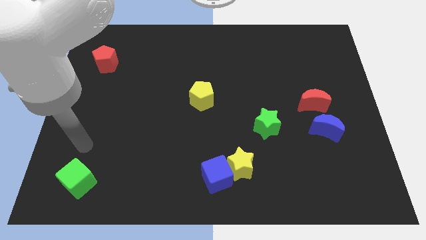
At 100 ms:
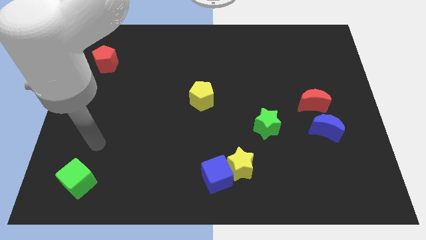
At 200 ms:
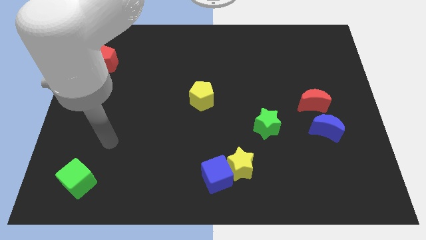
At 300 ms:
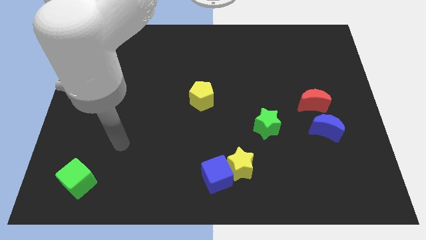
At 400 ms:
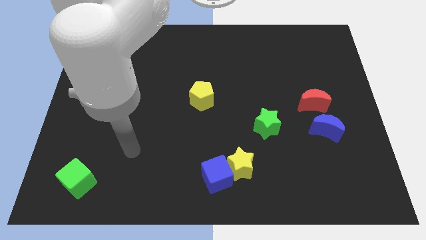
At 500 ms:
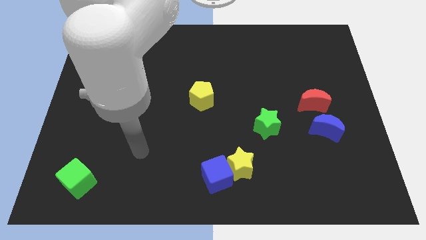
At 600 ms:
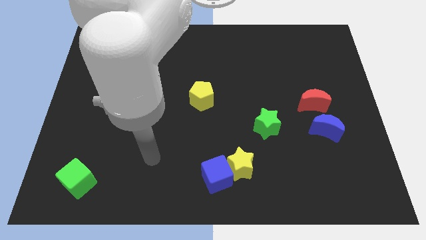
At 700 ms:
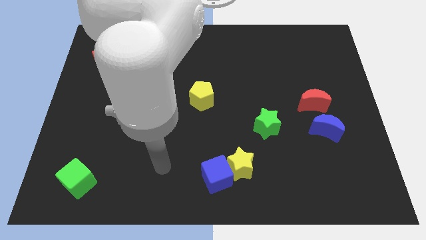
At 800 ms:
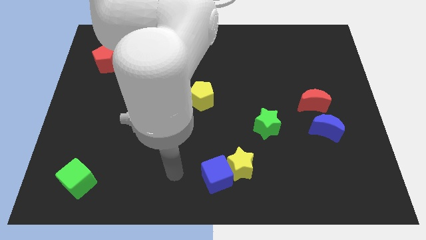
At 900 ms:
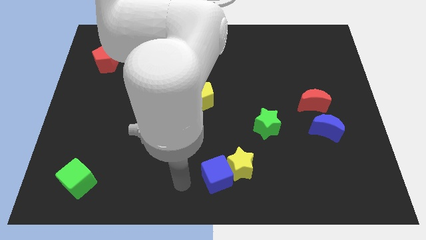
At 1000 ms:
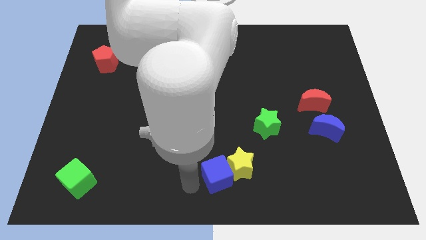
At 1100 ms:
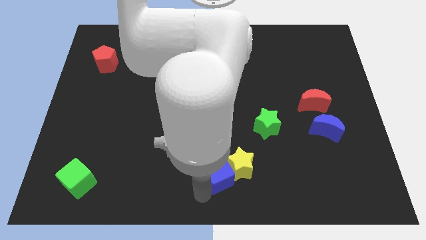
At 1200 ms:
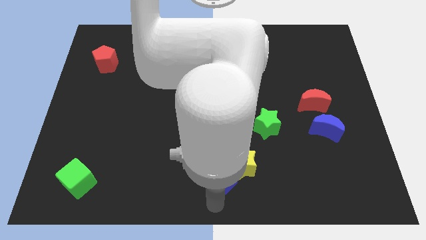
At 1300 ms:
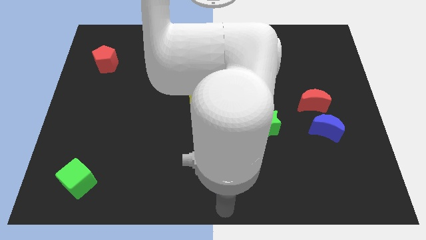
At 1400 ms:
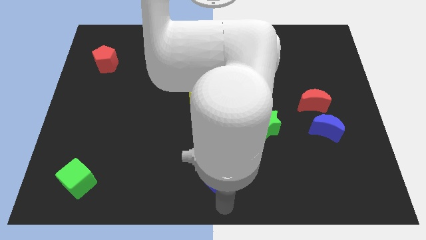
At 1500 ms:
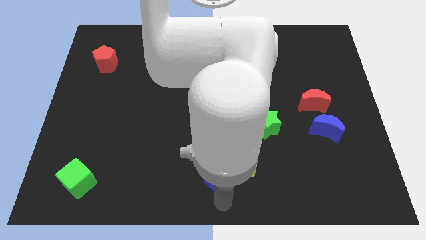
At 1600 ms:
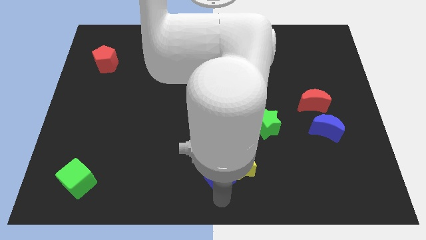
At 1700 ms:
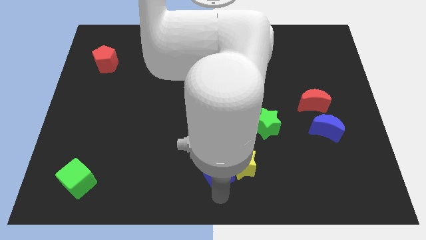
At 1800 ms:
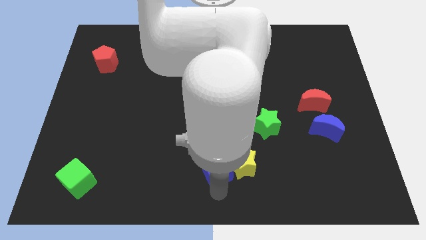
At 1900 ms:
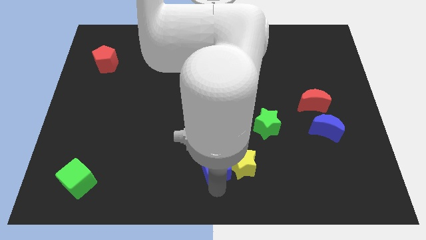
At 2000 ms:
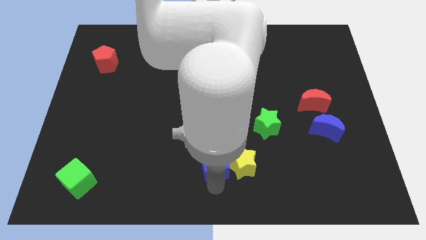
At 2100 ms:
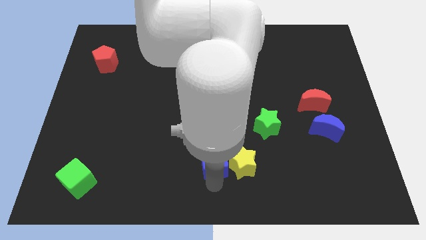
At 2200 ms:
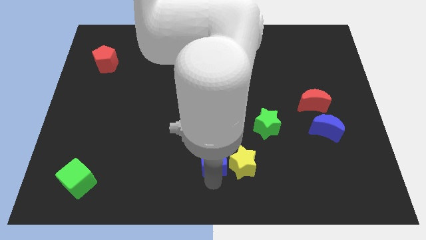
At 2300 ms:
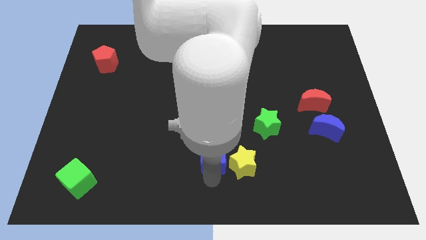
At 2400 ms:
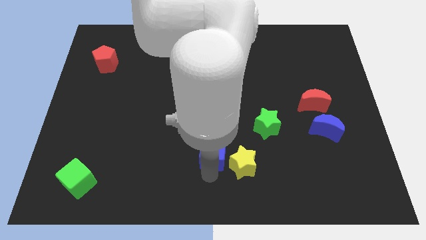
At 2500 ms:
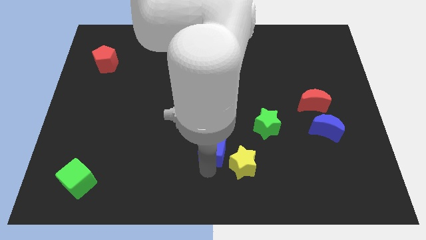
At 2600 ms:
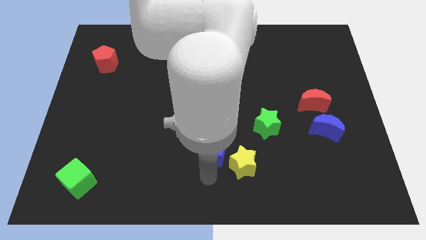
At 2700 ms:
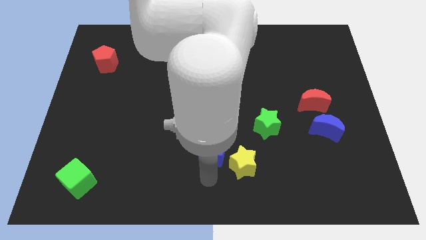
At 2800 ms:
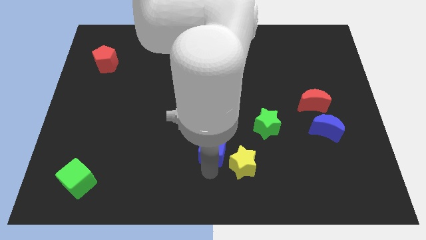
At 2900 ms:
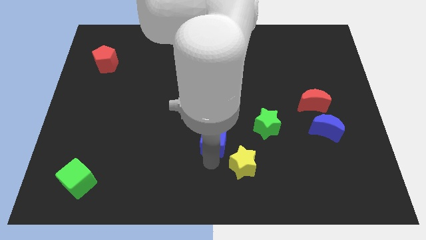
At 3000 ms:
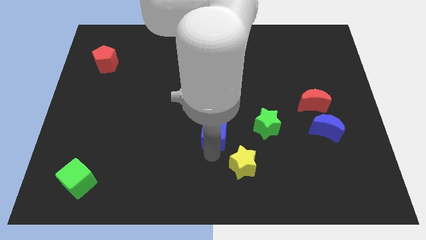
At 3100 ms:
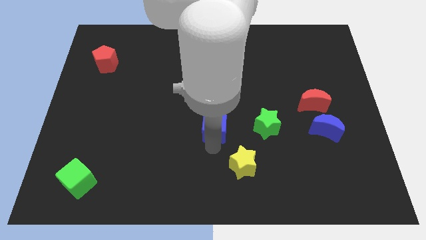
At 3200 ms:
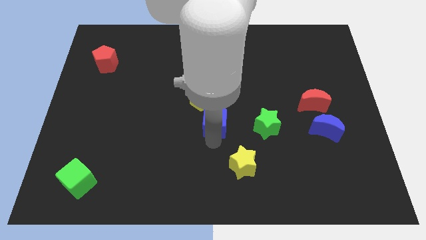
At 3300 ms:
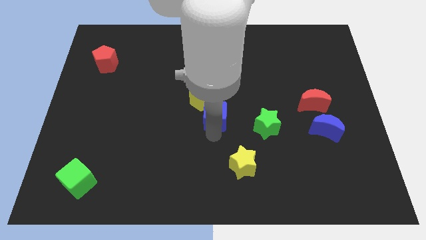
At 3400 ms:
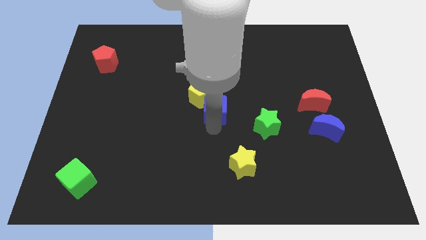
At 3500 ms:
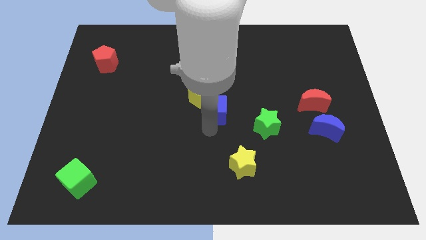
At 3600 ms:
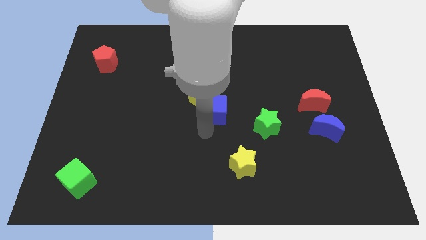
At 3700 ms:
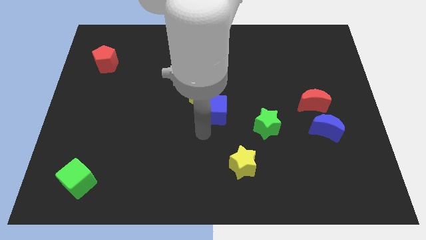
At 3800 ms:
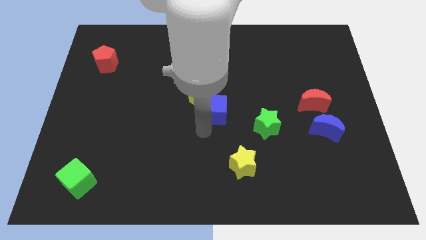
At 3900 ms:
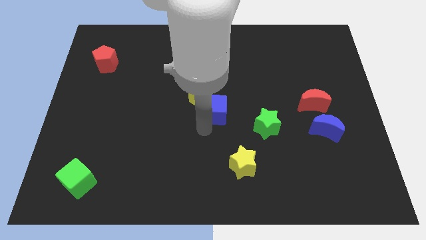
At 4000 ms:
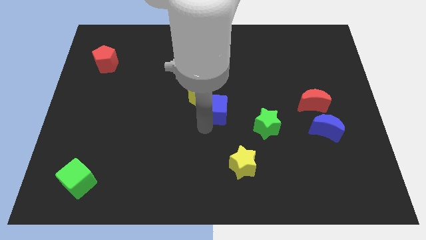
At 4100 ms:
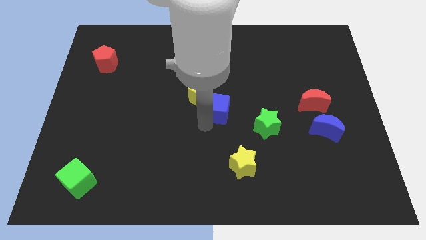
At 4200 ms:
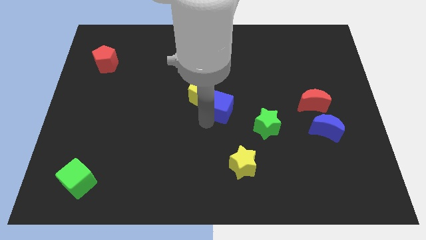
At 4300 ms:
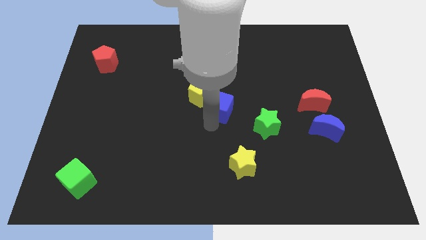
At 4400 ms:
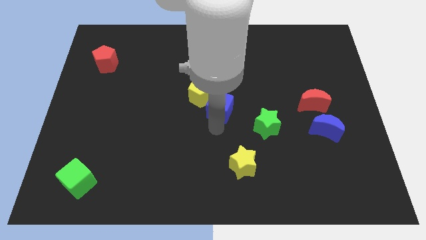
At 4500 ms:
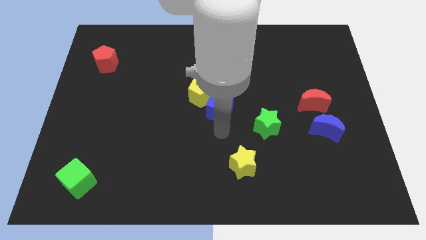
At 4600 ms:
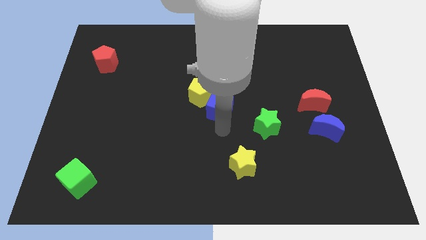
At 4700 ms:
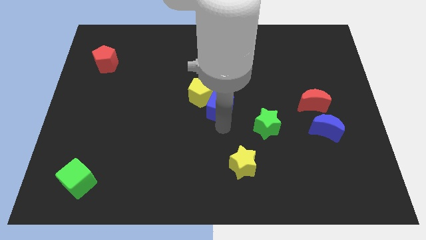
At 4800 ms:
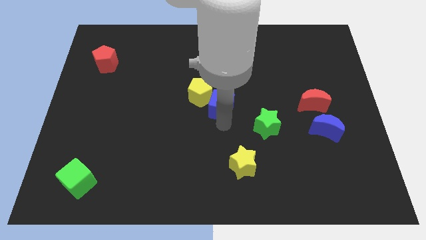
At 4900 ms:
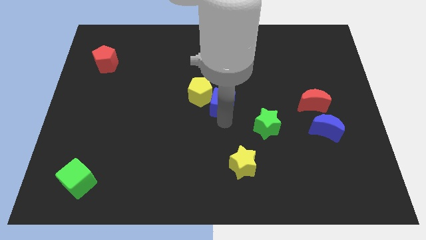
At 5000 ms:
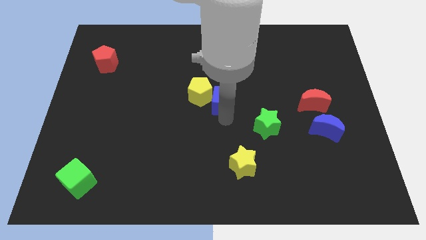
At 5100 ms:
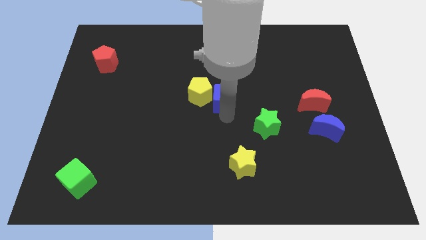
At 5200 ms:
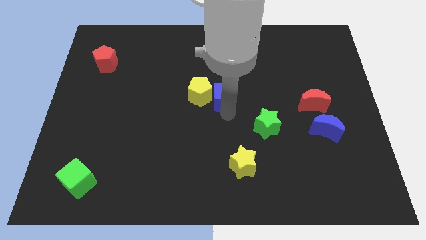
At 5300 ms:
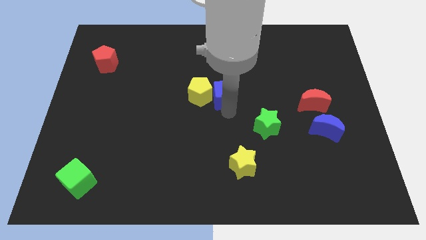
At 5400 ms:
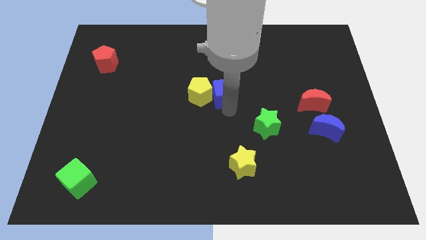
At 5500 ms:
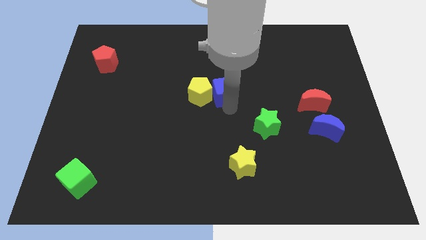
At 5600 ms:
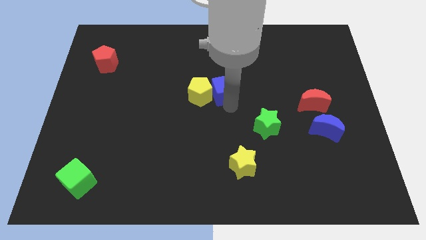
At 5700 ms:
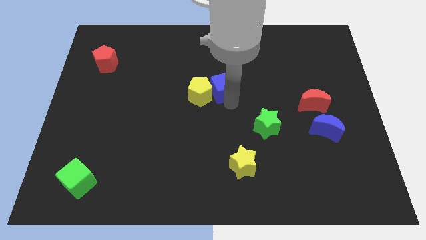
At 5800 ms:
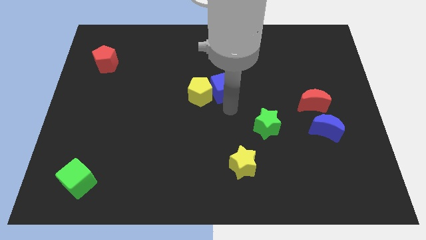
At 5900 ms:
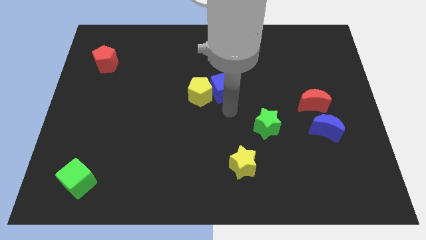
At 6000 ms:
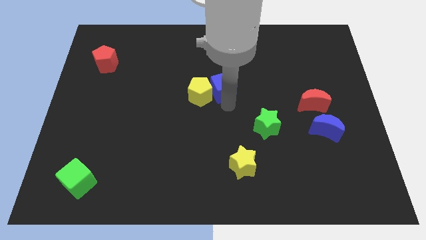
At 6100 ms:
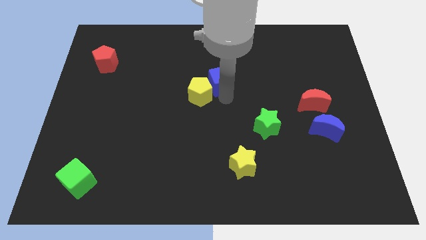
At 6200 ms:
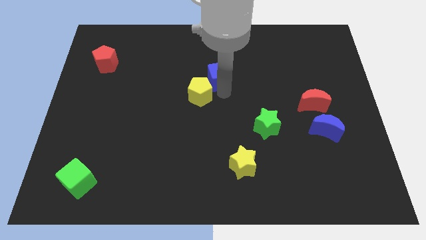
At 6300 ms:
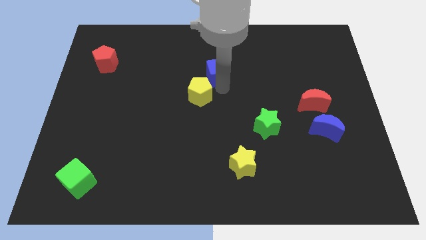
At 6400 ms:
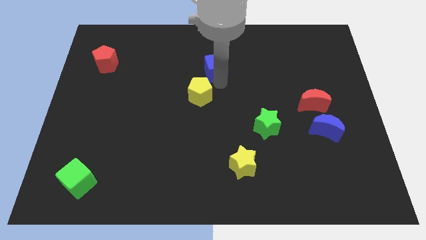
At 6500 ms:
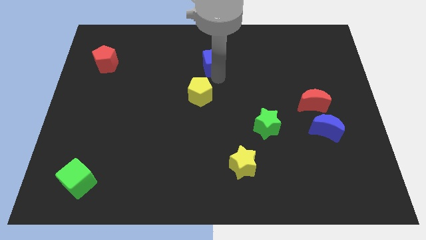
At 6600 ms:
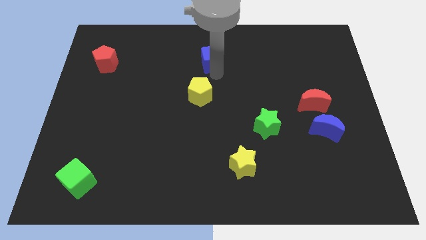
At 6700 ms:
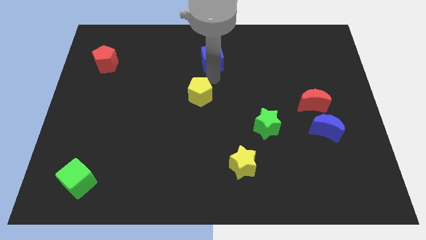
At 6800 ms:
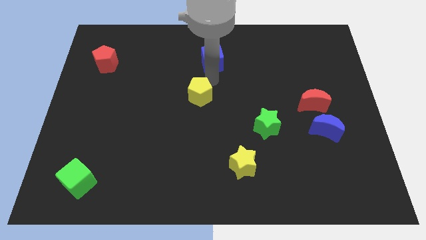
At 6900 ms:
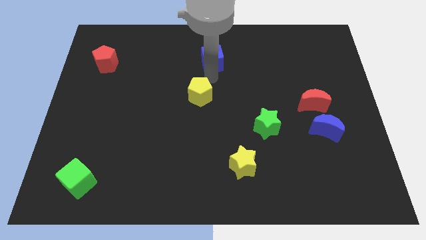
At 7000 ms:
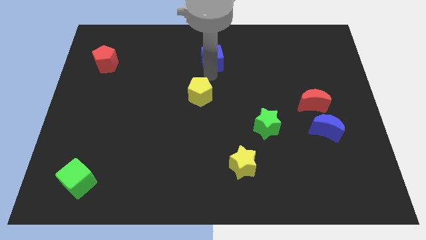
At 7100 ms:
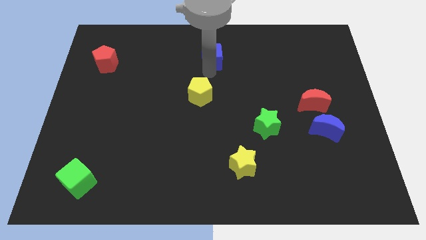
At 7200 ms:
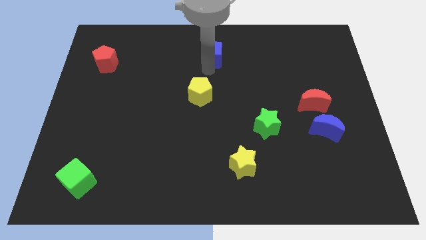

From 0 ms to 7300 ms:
move the blue cube to the top
